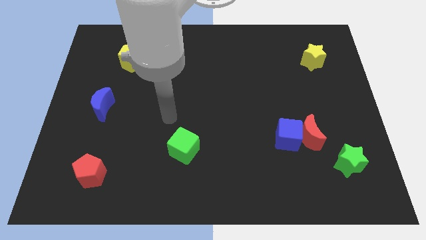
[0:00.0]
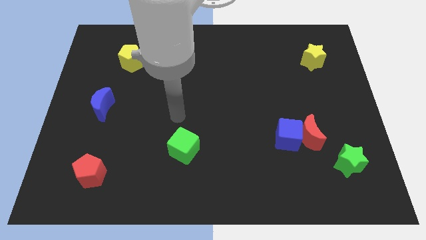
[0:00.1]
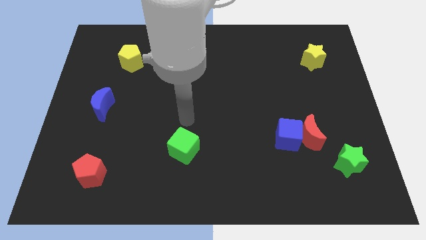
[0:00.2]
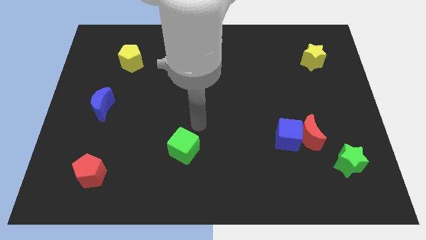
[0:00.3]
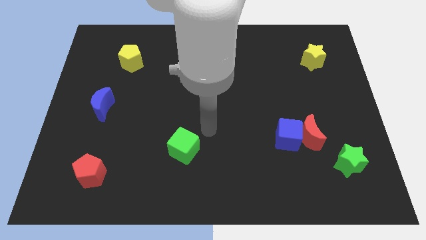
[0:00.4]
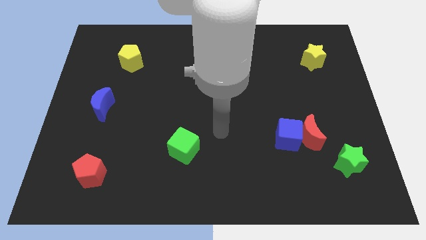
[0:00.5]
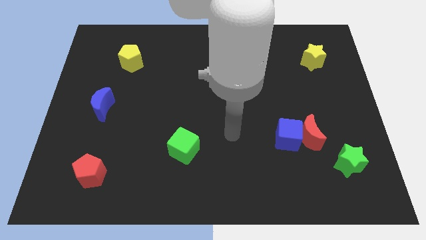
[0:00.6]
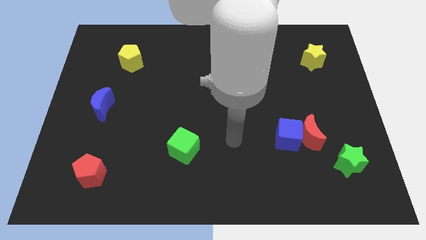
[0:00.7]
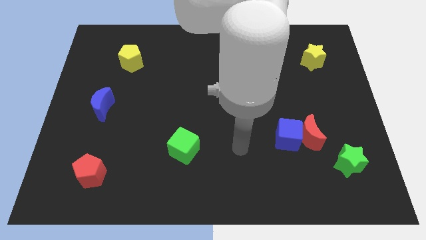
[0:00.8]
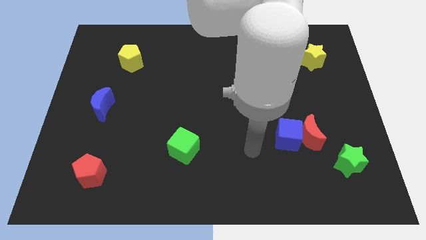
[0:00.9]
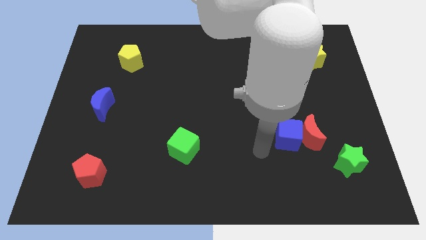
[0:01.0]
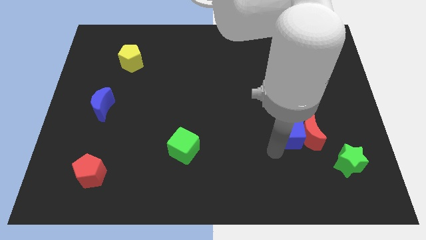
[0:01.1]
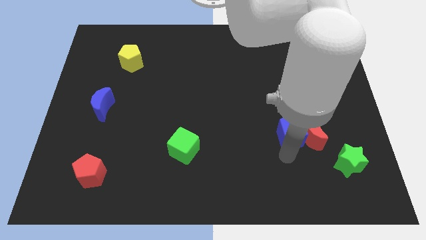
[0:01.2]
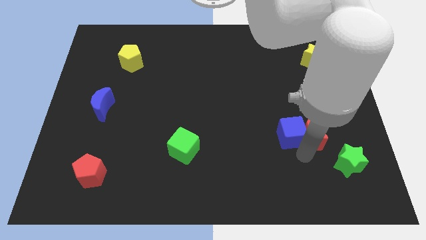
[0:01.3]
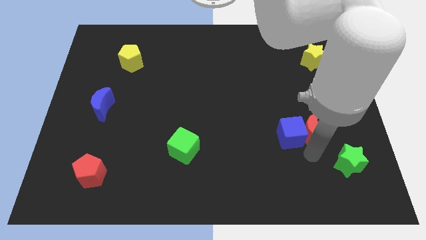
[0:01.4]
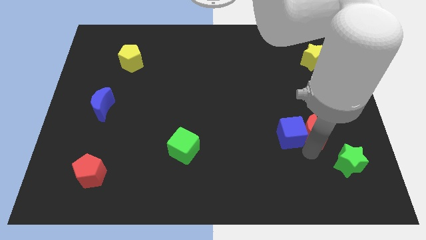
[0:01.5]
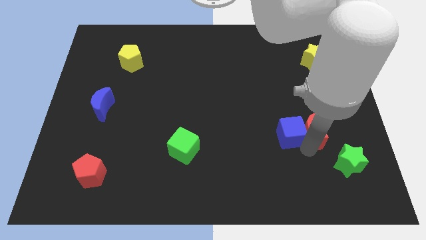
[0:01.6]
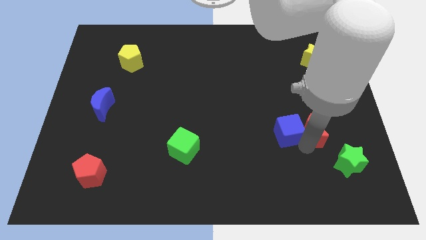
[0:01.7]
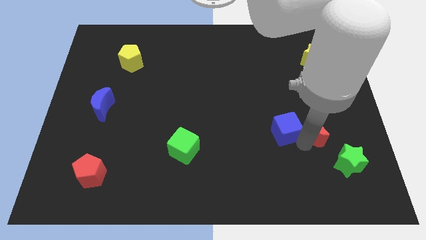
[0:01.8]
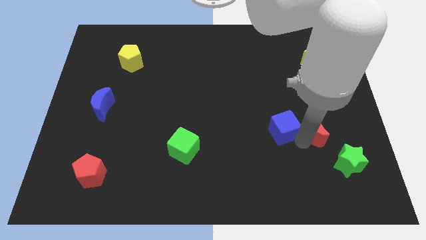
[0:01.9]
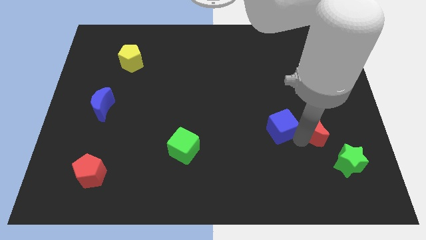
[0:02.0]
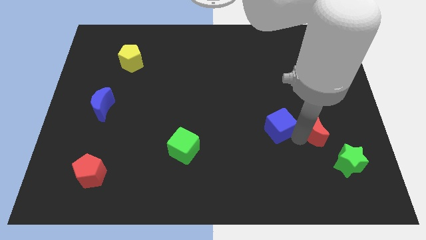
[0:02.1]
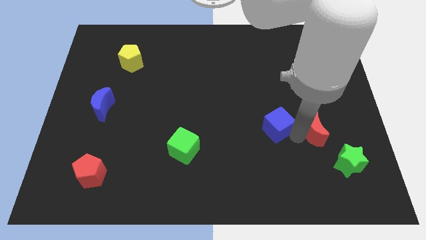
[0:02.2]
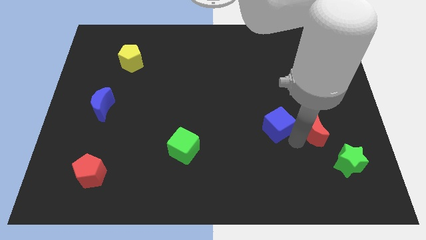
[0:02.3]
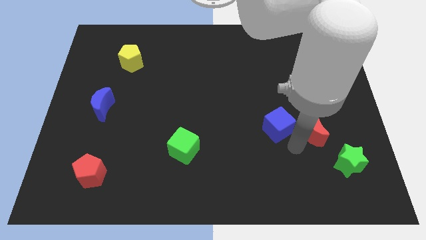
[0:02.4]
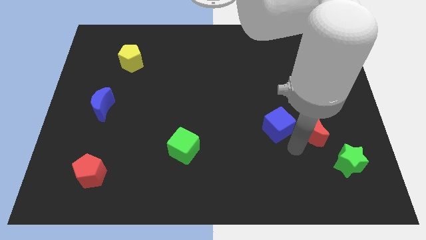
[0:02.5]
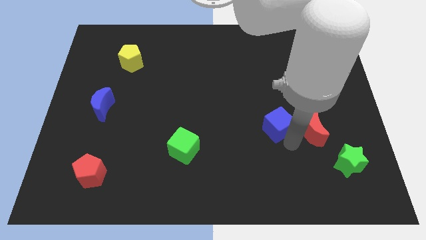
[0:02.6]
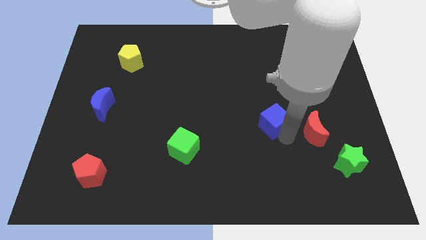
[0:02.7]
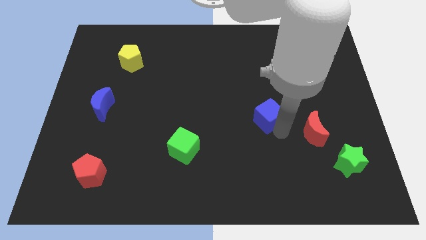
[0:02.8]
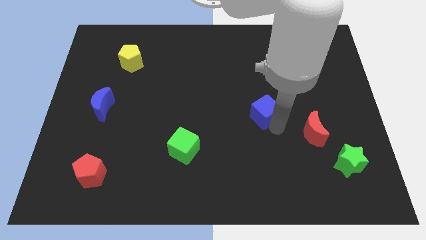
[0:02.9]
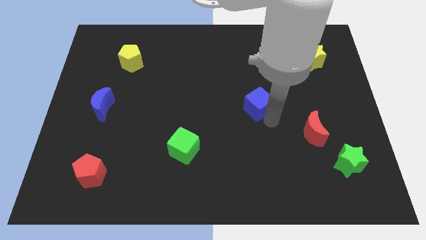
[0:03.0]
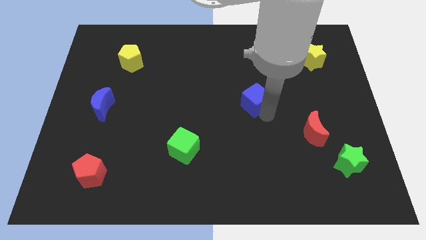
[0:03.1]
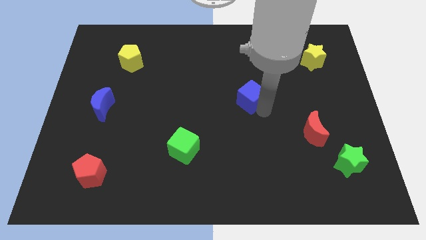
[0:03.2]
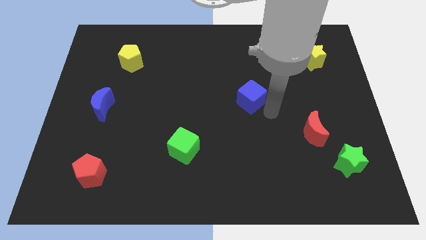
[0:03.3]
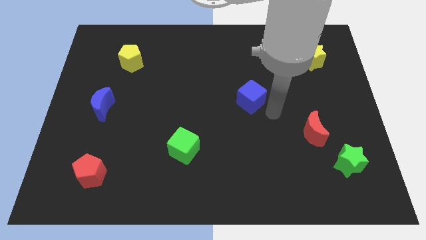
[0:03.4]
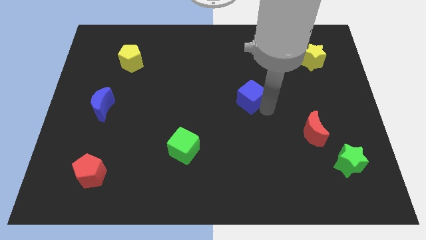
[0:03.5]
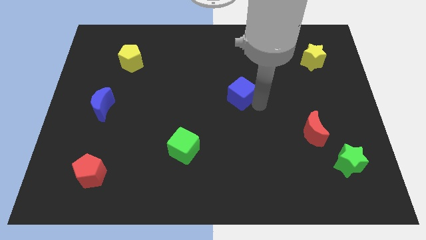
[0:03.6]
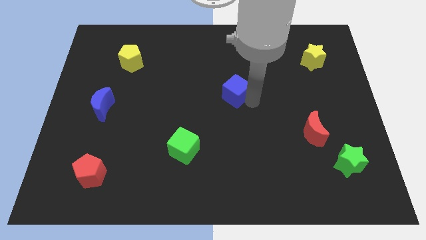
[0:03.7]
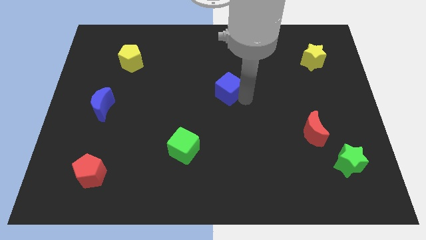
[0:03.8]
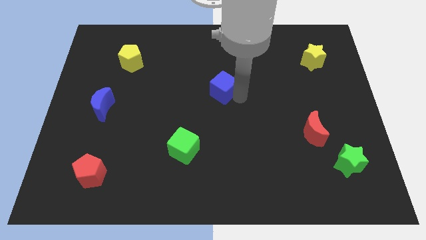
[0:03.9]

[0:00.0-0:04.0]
move the blue cube up and then to the left

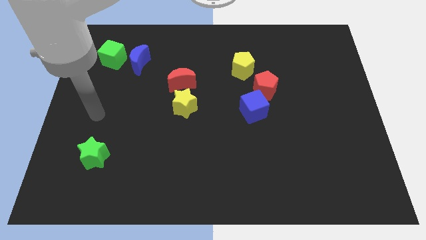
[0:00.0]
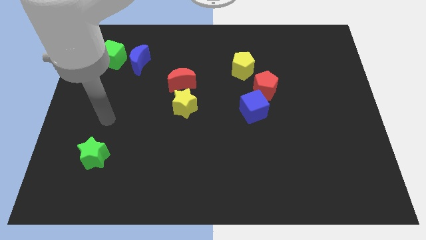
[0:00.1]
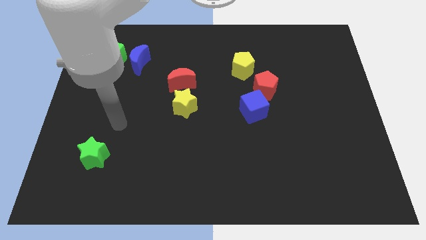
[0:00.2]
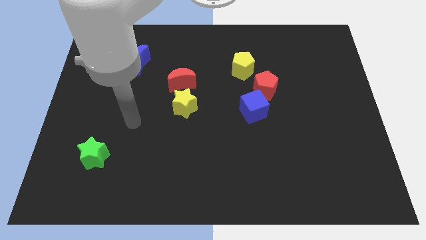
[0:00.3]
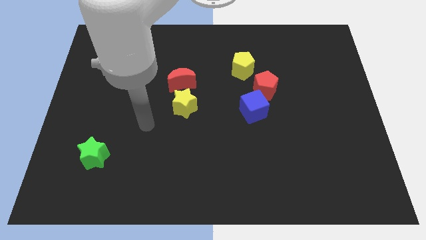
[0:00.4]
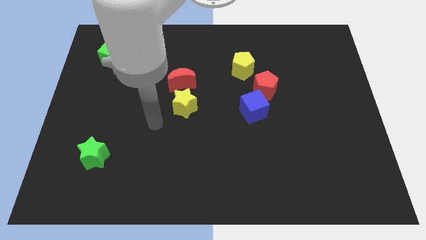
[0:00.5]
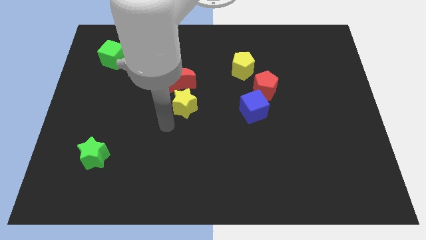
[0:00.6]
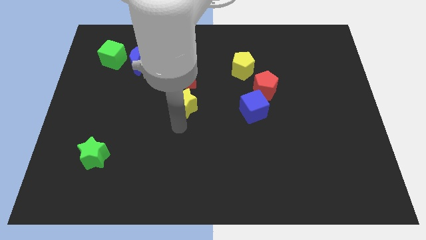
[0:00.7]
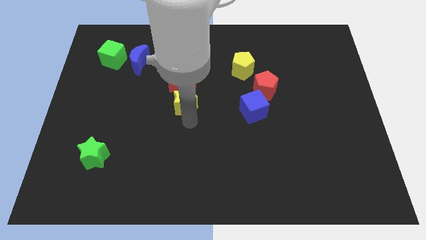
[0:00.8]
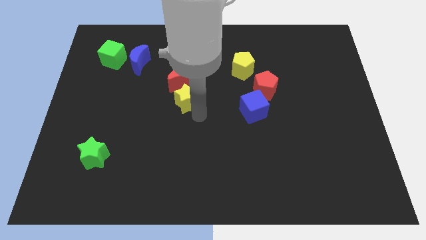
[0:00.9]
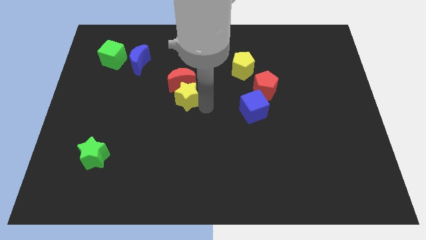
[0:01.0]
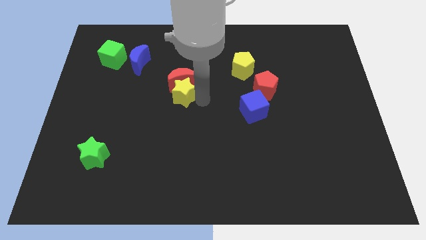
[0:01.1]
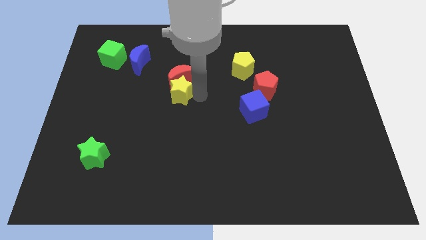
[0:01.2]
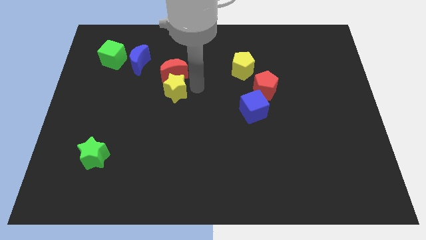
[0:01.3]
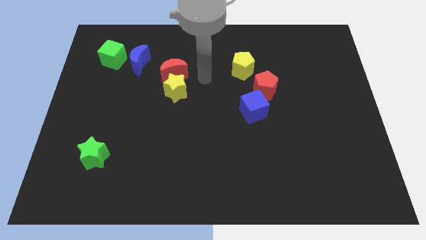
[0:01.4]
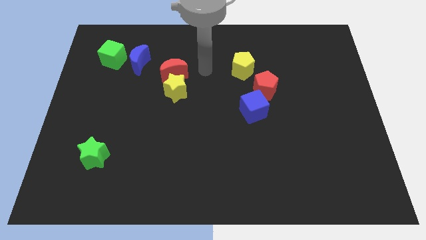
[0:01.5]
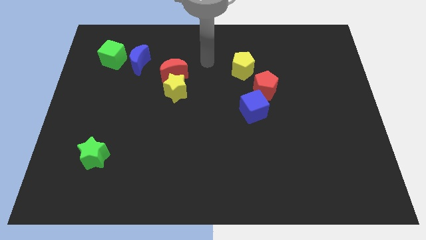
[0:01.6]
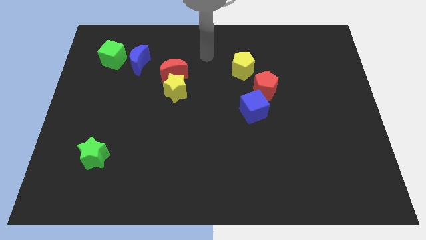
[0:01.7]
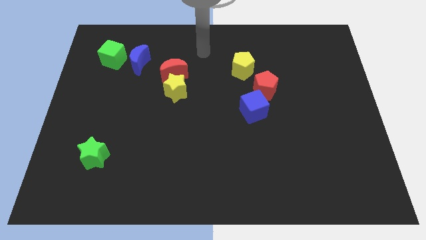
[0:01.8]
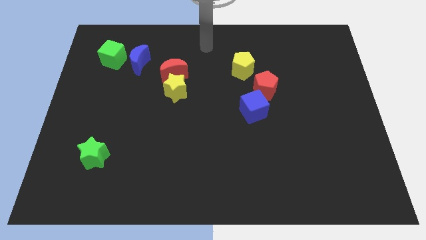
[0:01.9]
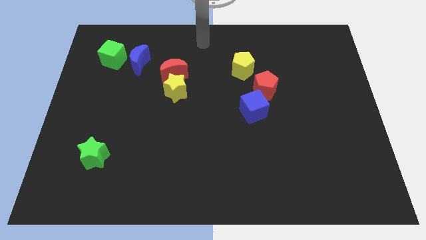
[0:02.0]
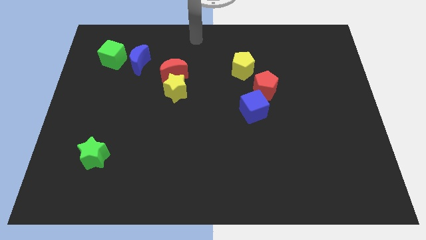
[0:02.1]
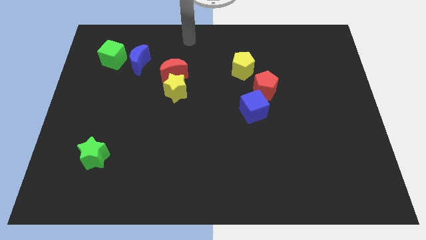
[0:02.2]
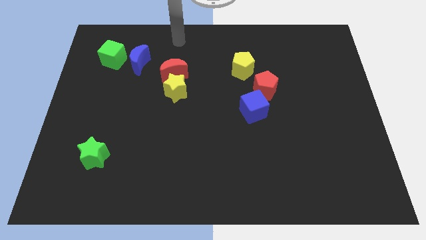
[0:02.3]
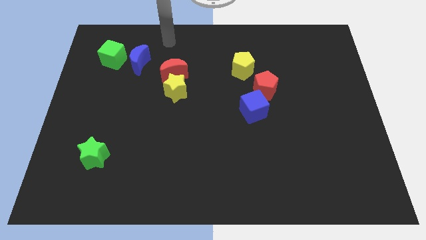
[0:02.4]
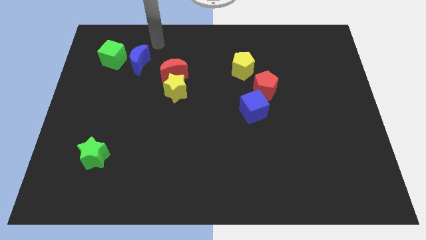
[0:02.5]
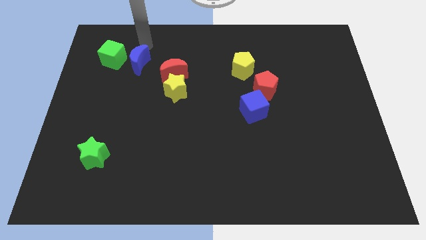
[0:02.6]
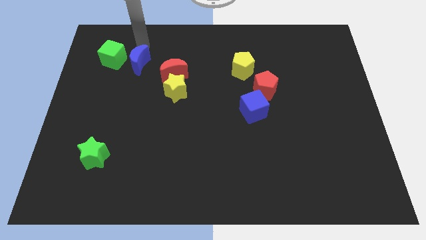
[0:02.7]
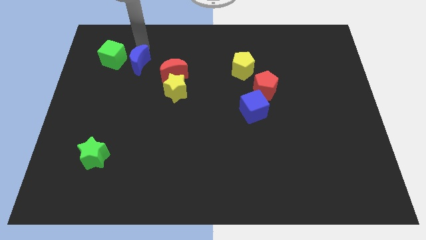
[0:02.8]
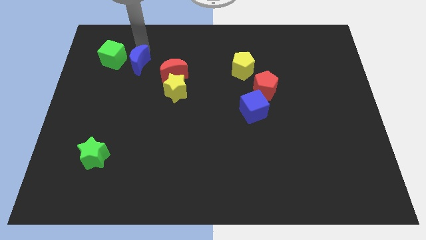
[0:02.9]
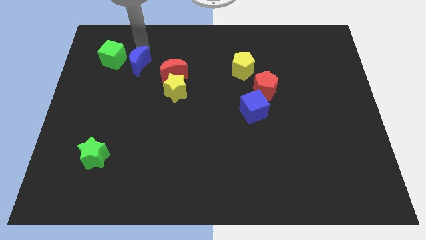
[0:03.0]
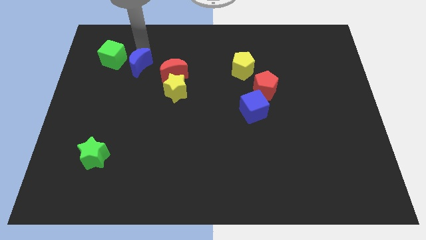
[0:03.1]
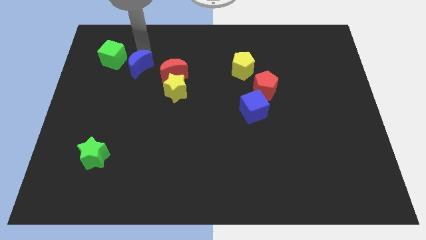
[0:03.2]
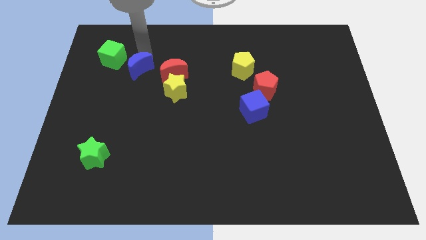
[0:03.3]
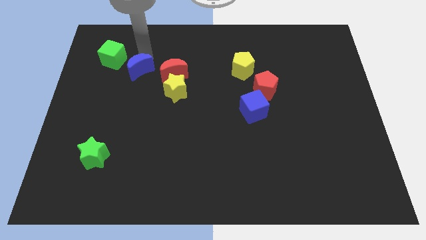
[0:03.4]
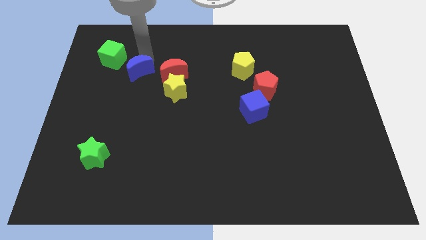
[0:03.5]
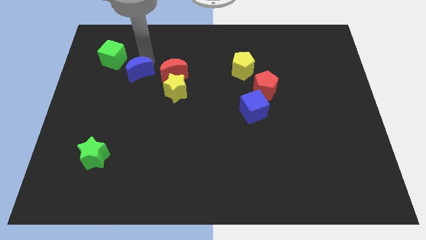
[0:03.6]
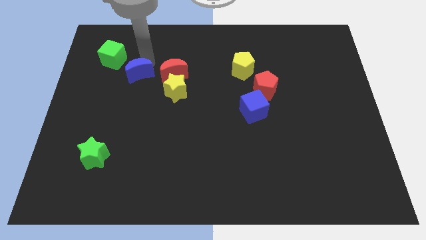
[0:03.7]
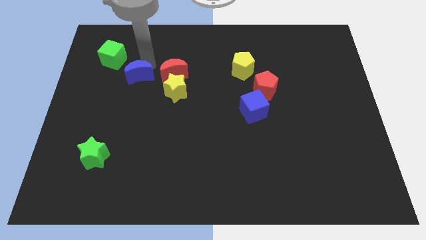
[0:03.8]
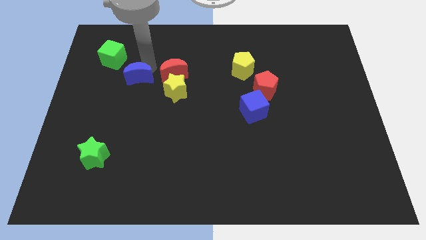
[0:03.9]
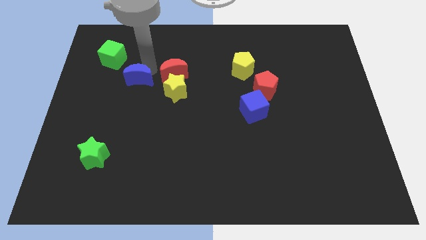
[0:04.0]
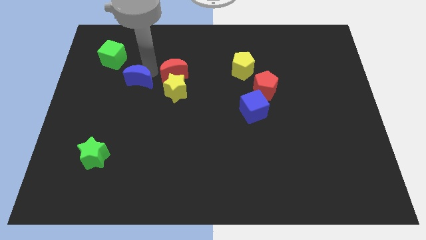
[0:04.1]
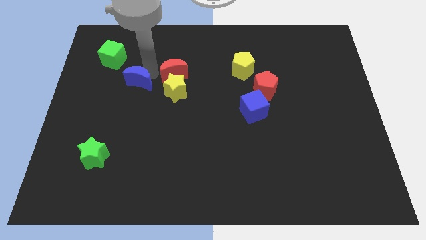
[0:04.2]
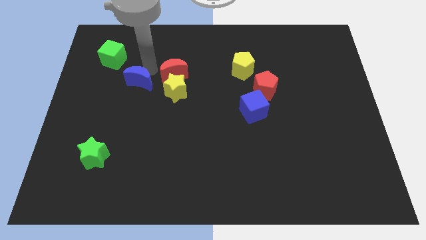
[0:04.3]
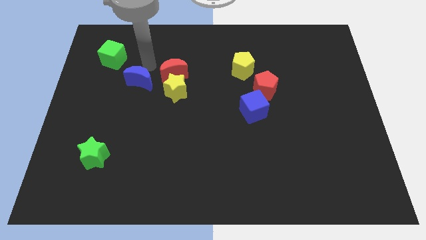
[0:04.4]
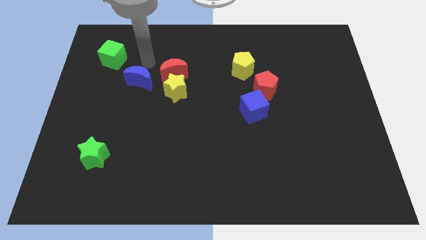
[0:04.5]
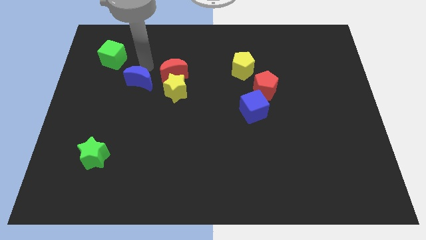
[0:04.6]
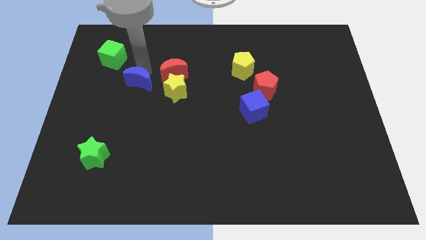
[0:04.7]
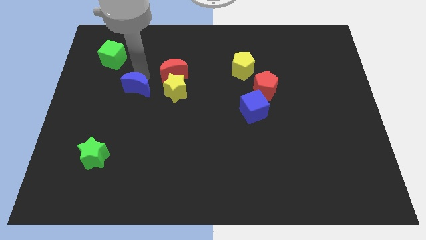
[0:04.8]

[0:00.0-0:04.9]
slightly push the blue moon down
